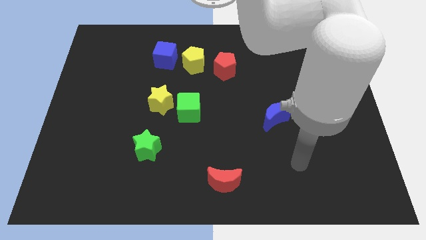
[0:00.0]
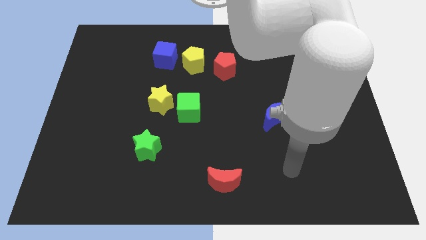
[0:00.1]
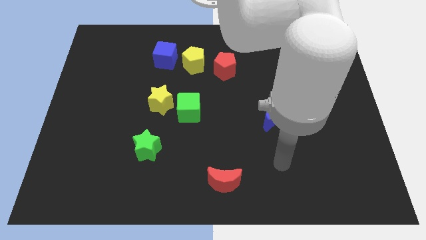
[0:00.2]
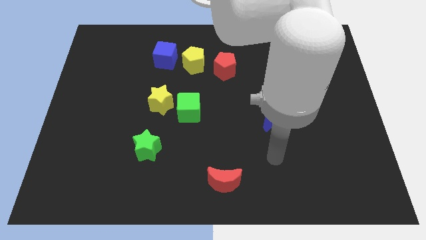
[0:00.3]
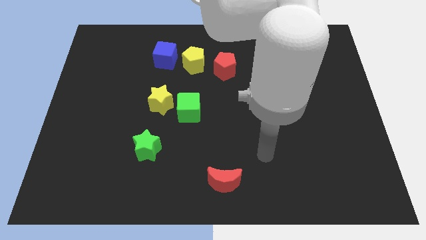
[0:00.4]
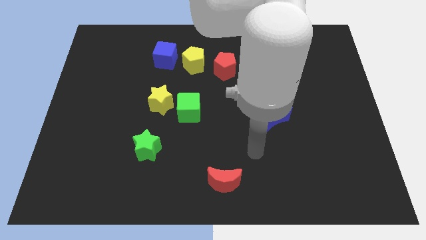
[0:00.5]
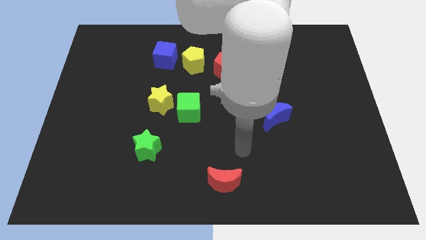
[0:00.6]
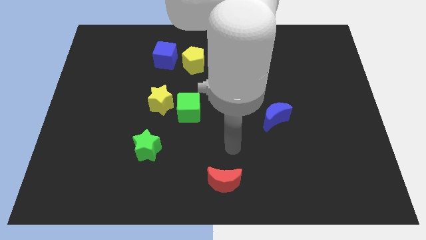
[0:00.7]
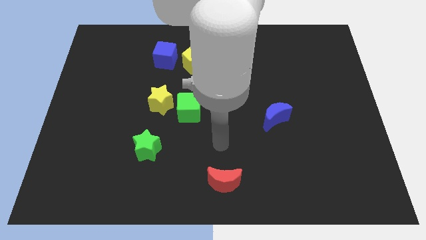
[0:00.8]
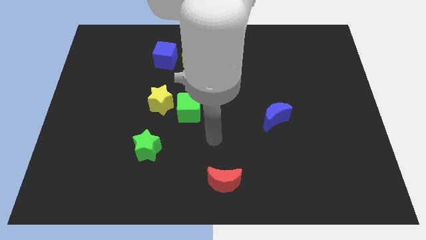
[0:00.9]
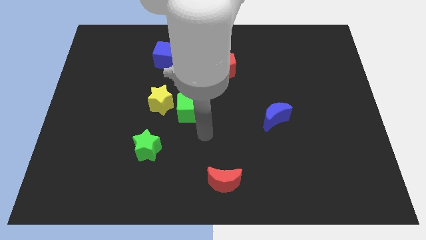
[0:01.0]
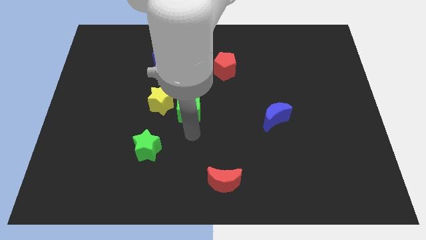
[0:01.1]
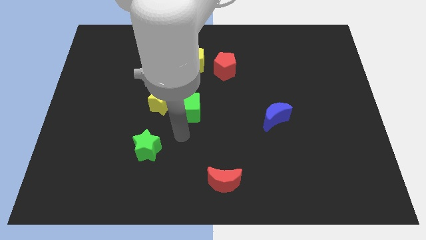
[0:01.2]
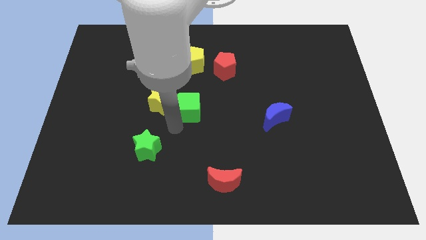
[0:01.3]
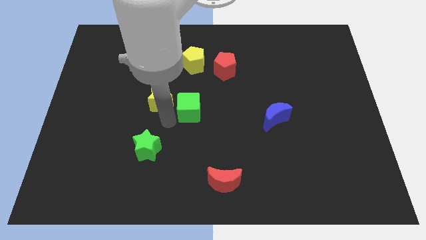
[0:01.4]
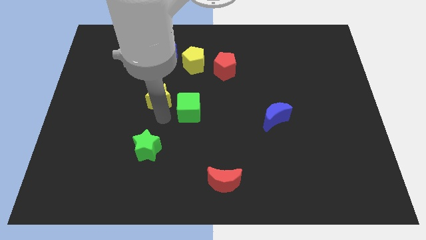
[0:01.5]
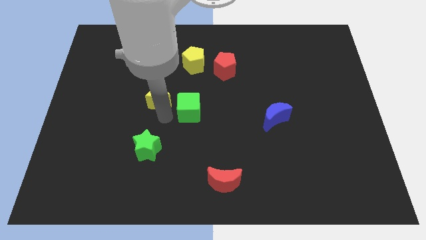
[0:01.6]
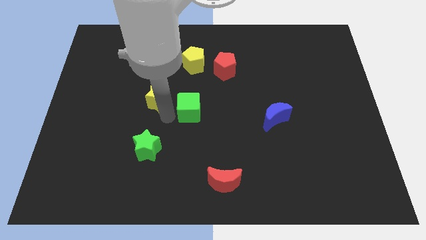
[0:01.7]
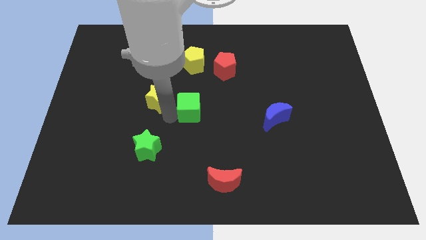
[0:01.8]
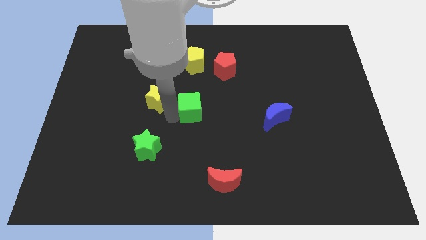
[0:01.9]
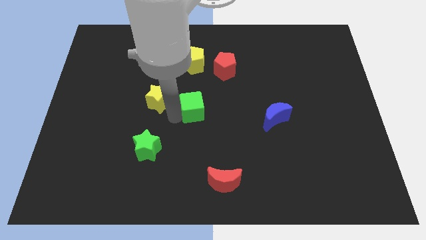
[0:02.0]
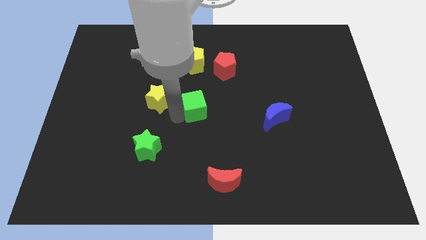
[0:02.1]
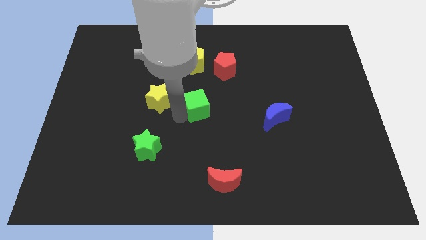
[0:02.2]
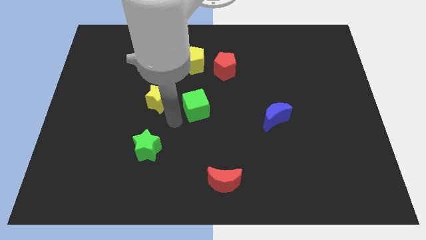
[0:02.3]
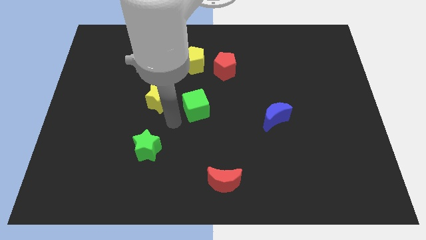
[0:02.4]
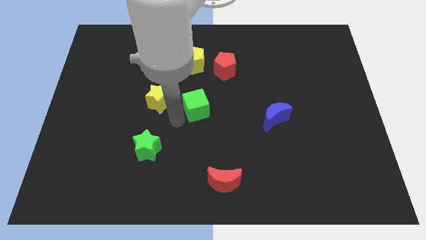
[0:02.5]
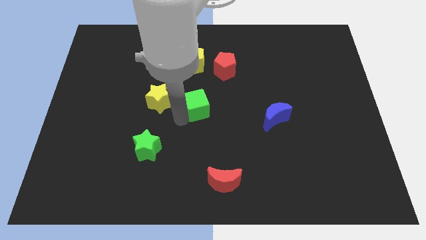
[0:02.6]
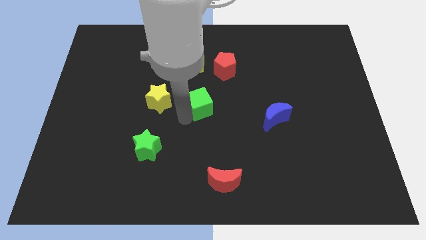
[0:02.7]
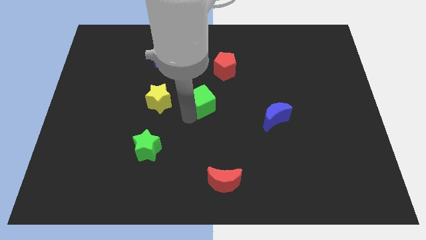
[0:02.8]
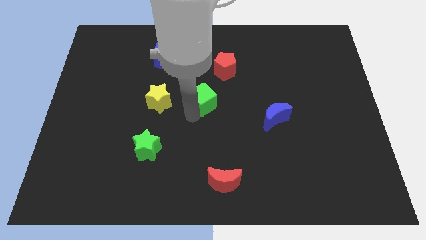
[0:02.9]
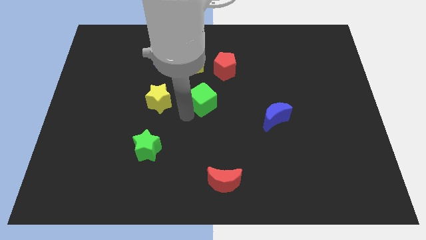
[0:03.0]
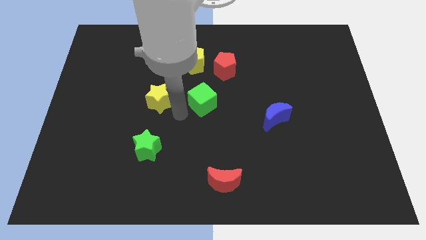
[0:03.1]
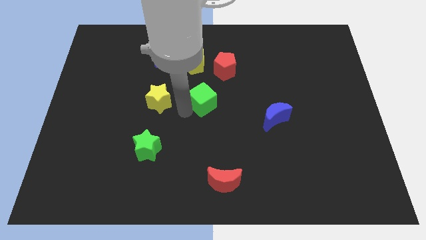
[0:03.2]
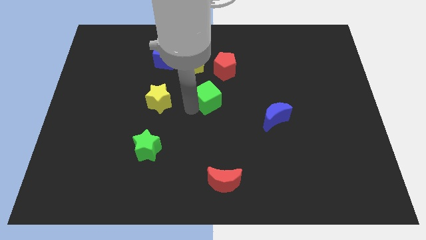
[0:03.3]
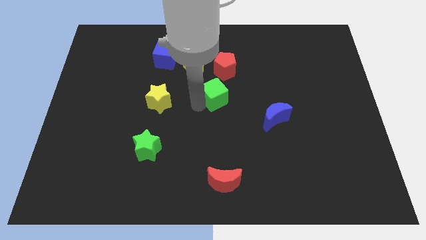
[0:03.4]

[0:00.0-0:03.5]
slightly push the green cube up and then right

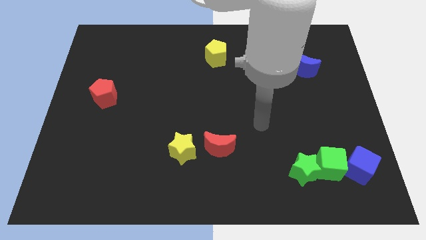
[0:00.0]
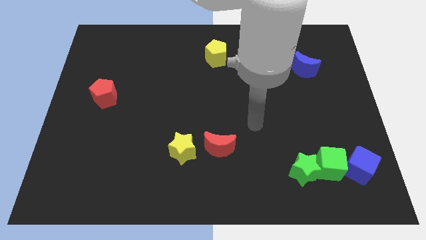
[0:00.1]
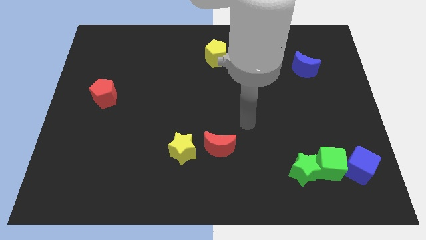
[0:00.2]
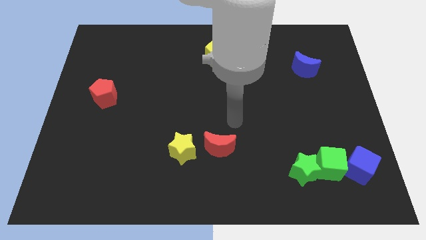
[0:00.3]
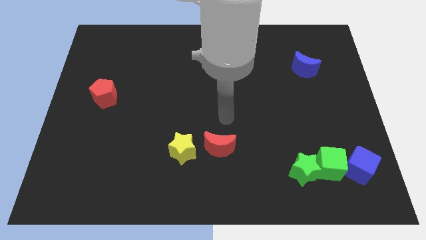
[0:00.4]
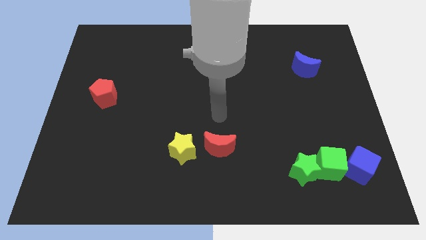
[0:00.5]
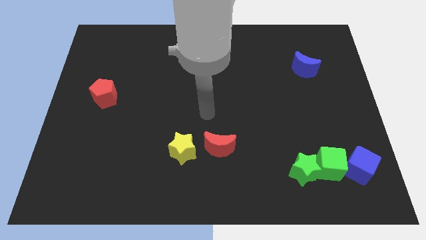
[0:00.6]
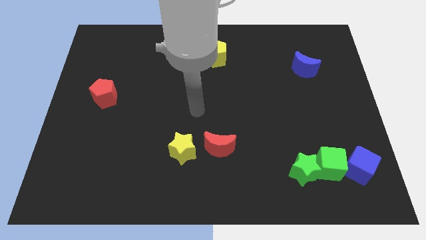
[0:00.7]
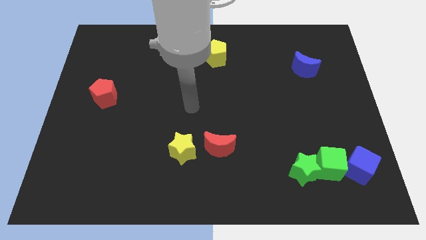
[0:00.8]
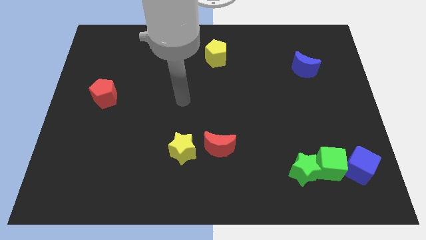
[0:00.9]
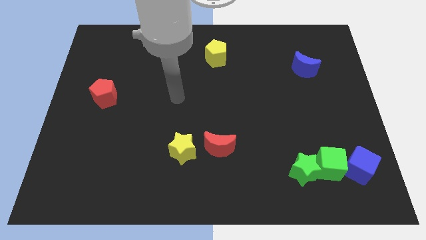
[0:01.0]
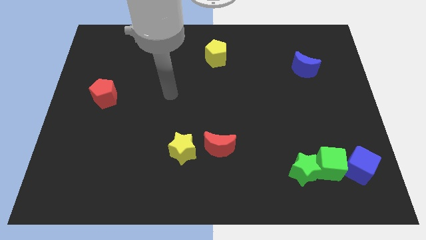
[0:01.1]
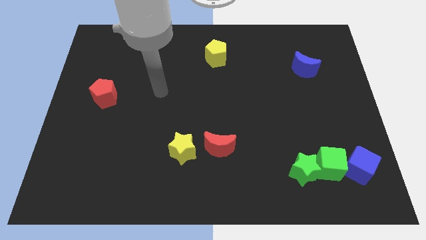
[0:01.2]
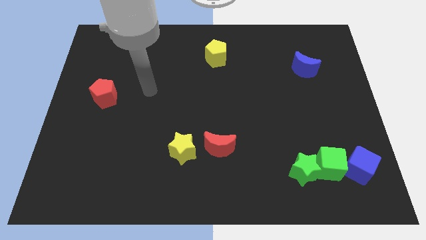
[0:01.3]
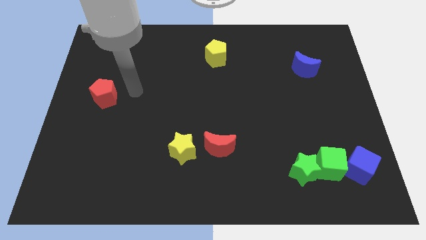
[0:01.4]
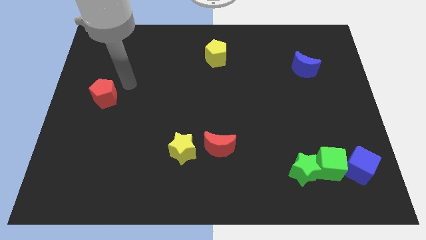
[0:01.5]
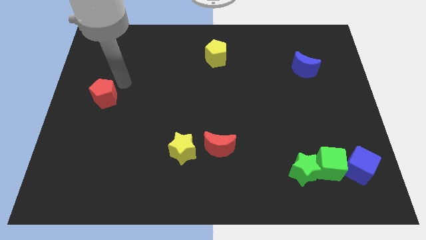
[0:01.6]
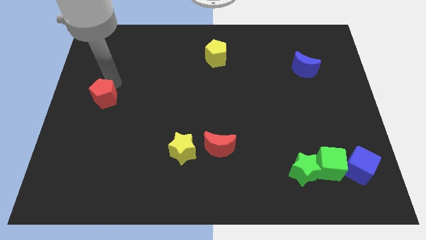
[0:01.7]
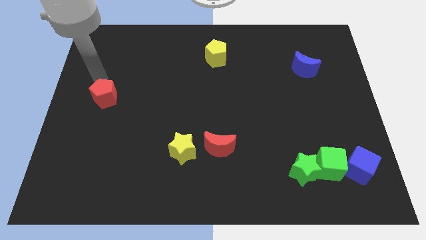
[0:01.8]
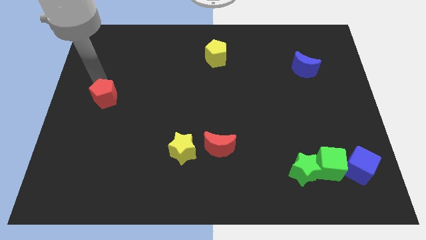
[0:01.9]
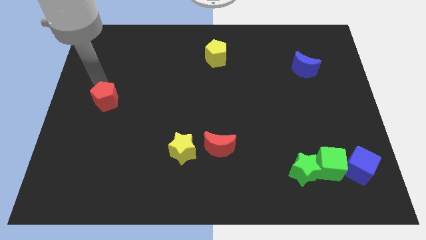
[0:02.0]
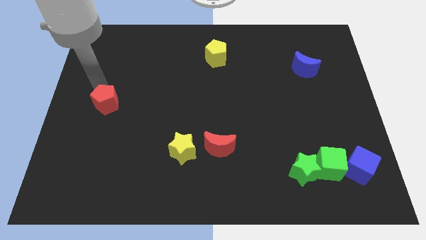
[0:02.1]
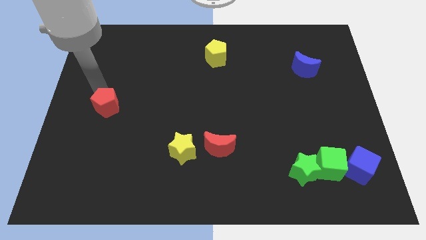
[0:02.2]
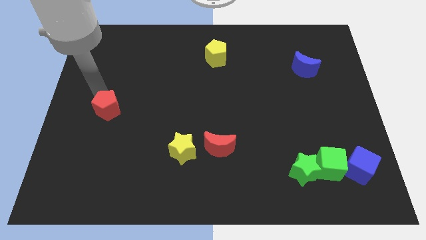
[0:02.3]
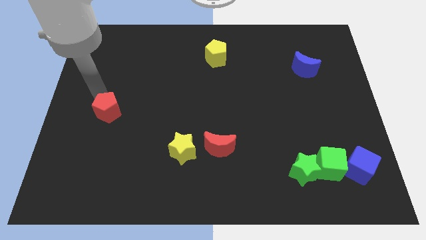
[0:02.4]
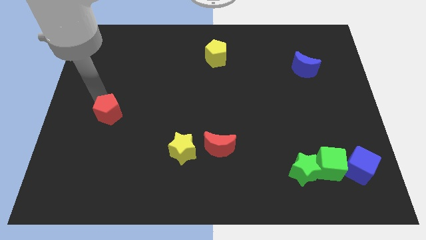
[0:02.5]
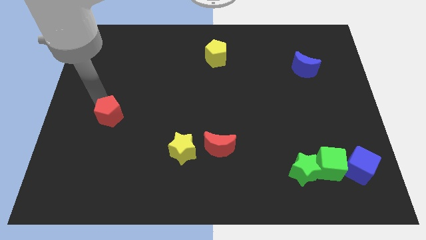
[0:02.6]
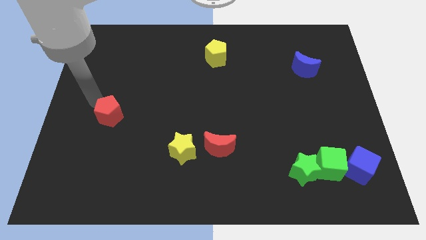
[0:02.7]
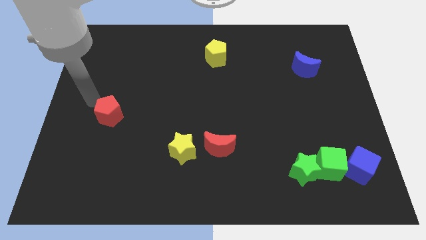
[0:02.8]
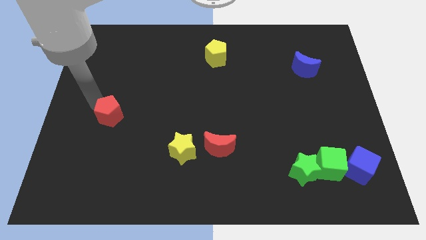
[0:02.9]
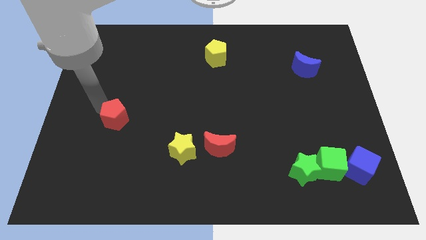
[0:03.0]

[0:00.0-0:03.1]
move the red pentagon a bit diagonally downwards and to the right

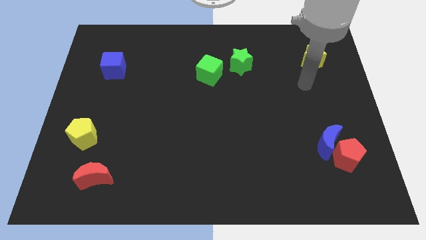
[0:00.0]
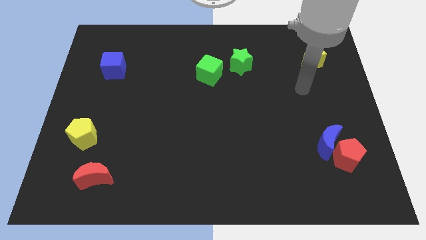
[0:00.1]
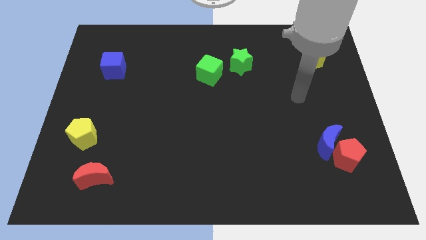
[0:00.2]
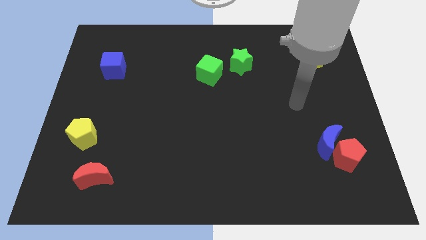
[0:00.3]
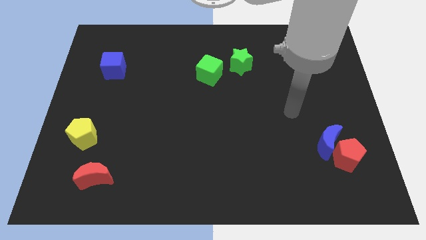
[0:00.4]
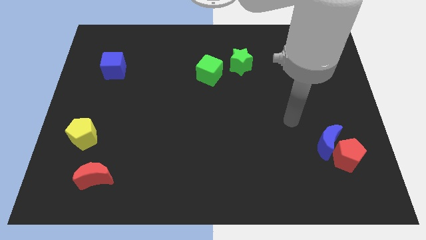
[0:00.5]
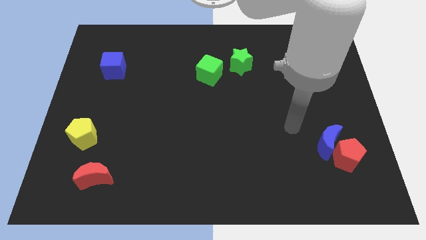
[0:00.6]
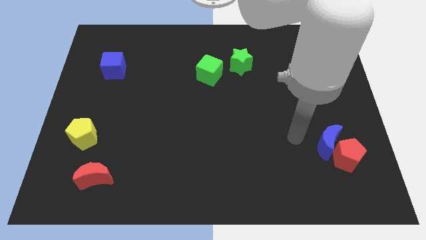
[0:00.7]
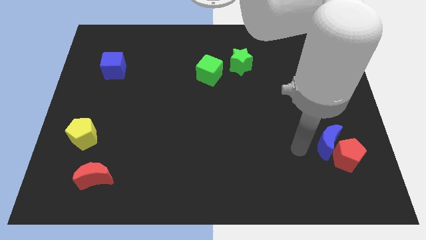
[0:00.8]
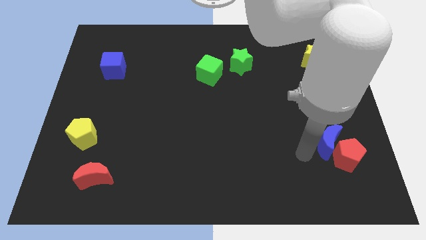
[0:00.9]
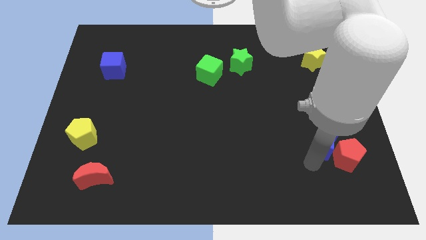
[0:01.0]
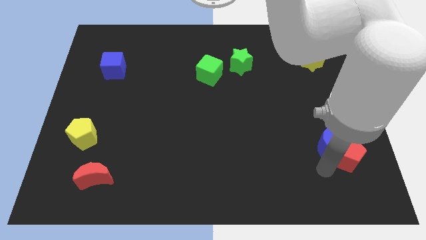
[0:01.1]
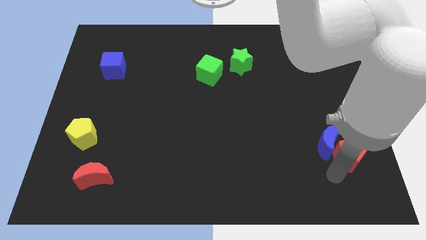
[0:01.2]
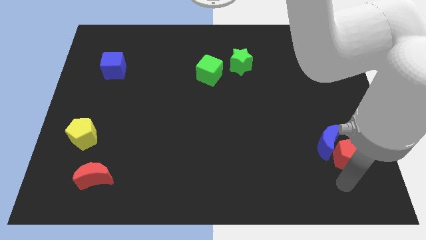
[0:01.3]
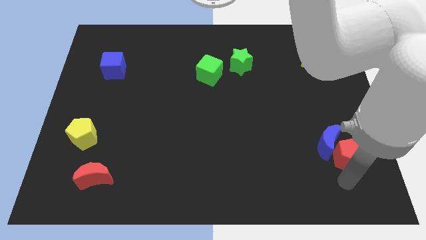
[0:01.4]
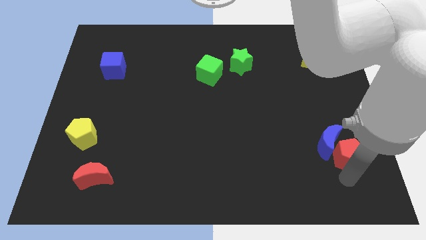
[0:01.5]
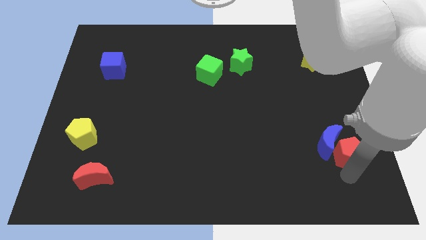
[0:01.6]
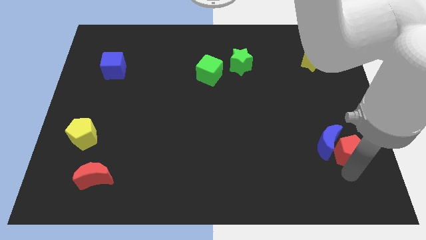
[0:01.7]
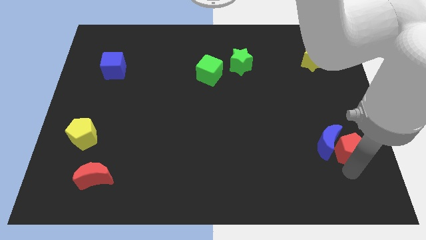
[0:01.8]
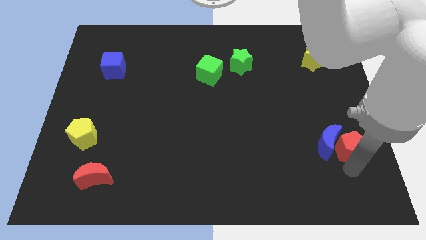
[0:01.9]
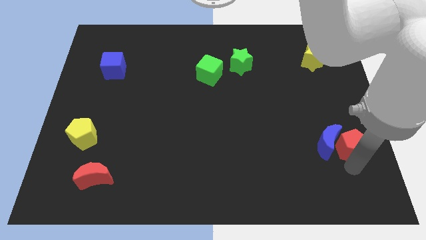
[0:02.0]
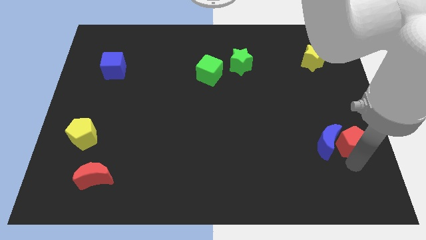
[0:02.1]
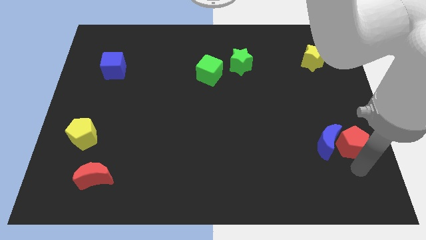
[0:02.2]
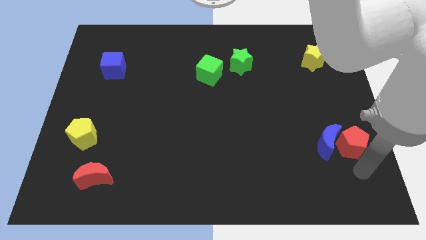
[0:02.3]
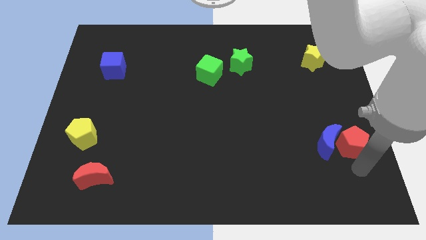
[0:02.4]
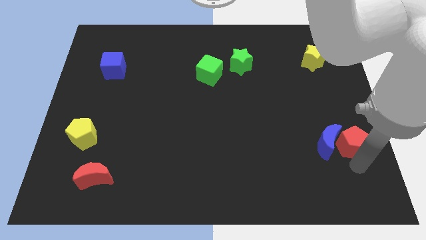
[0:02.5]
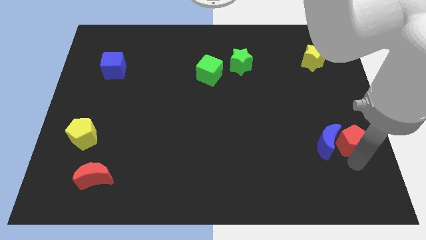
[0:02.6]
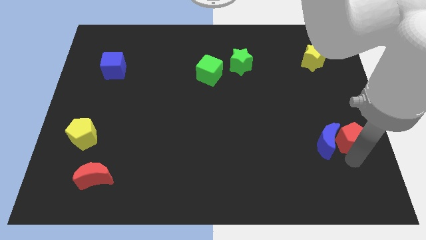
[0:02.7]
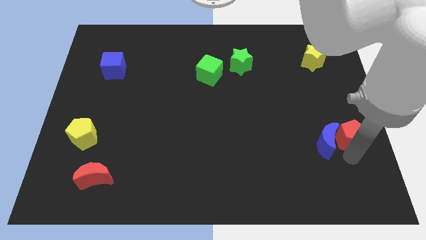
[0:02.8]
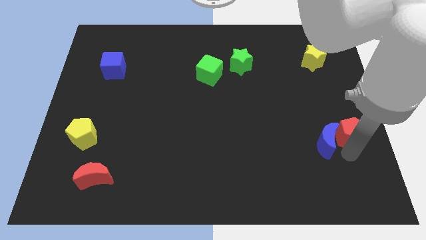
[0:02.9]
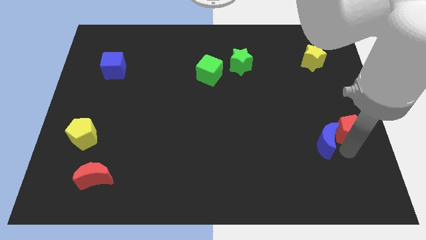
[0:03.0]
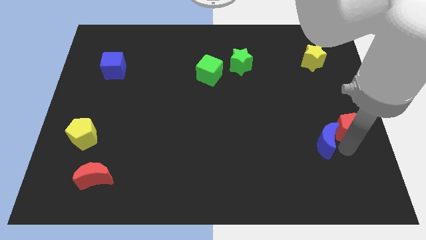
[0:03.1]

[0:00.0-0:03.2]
push the red pentagon a bit upwards
